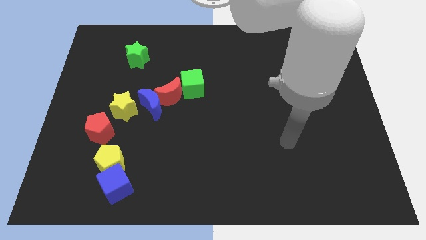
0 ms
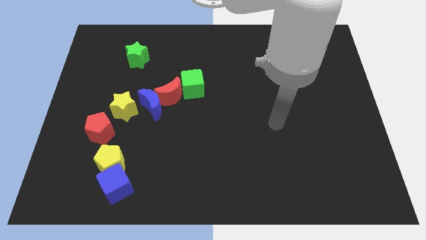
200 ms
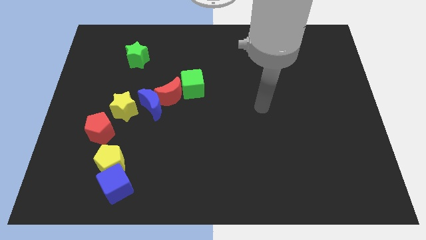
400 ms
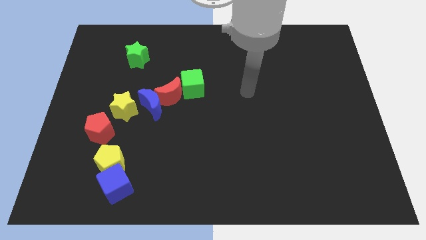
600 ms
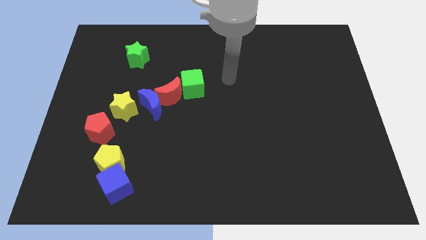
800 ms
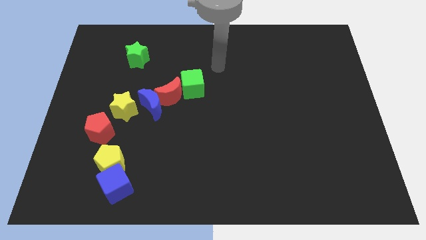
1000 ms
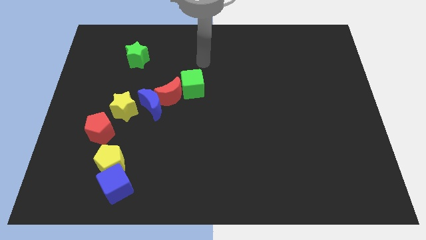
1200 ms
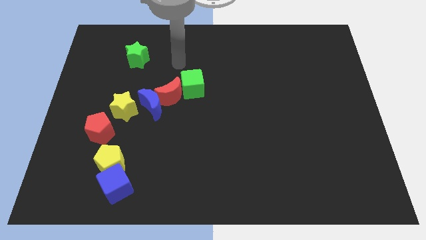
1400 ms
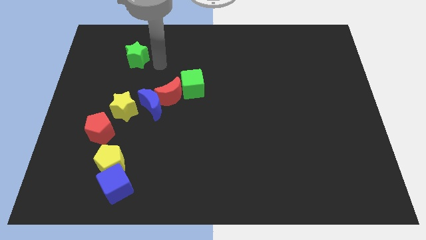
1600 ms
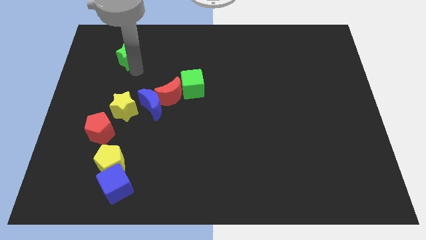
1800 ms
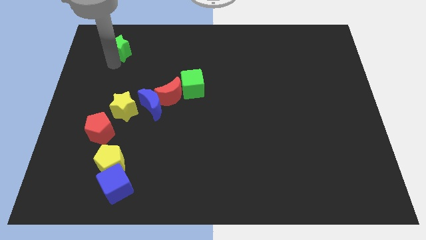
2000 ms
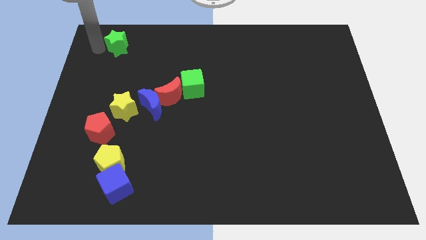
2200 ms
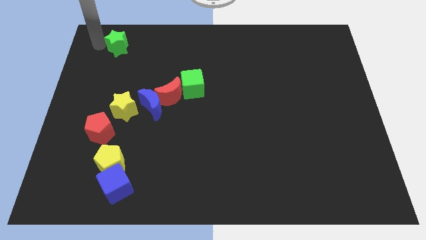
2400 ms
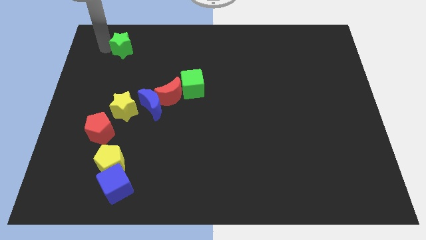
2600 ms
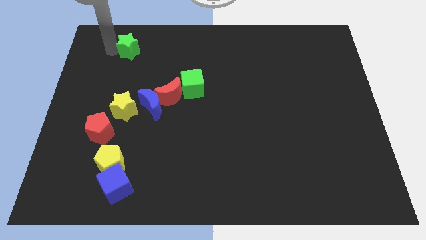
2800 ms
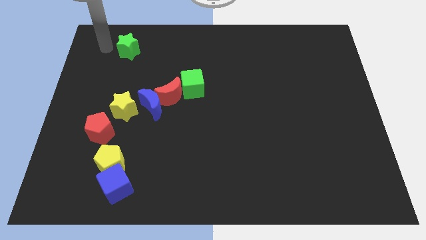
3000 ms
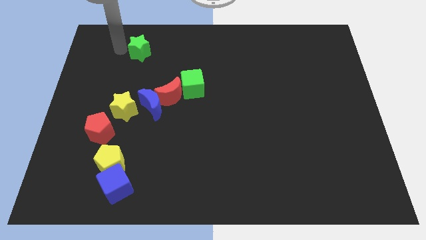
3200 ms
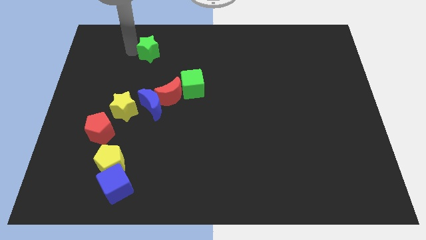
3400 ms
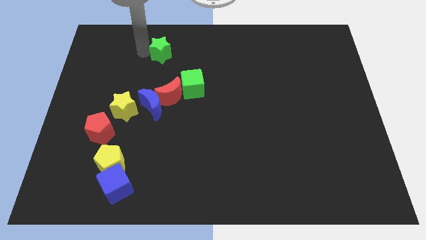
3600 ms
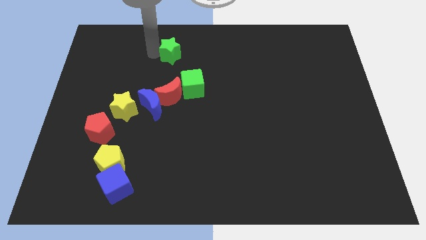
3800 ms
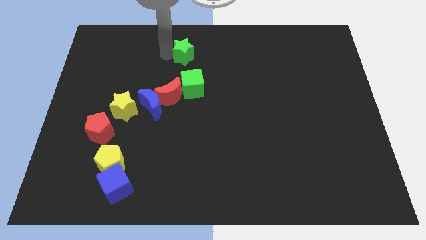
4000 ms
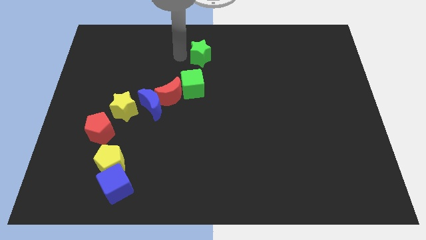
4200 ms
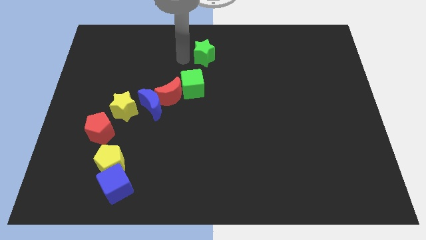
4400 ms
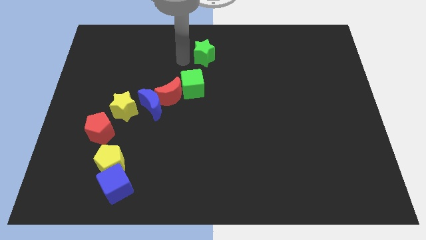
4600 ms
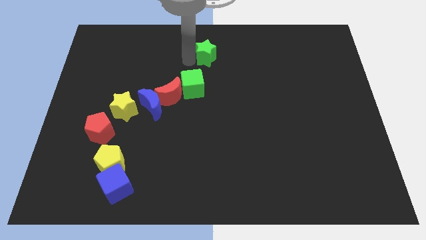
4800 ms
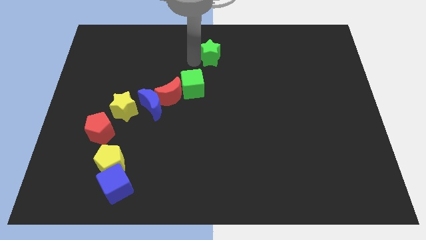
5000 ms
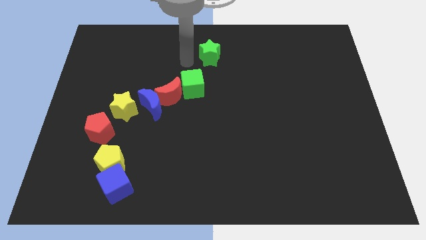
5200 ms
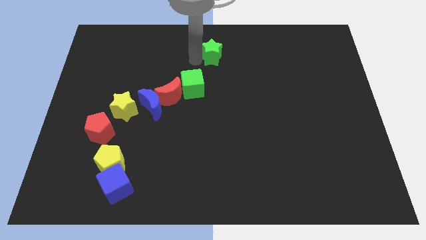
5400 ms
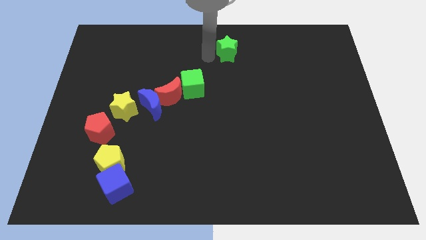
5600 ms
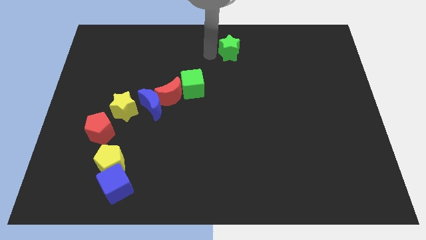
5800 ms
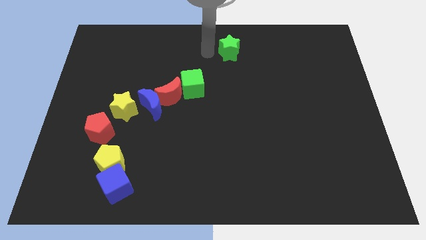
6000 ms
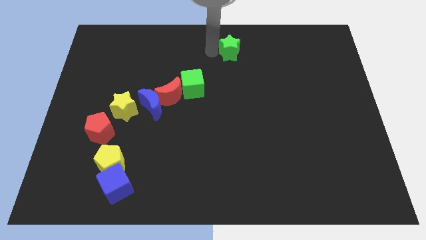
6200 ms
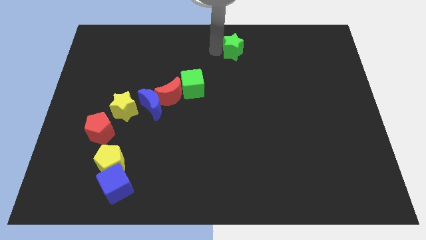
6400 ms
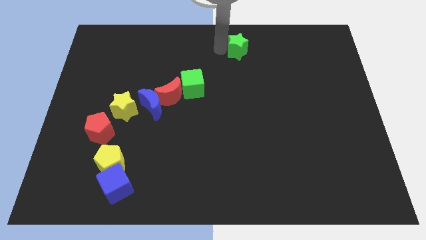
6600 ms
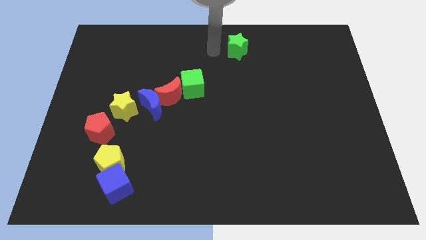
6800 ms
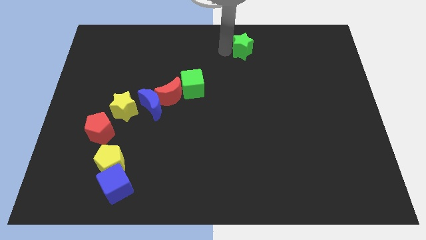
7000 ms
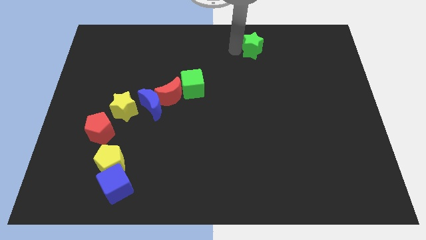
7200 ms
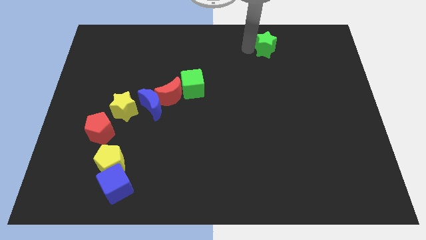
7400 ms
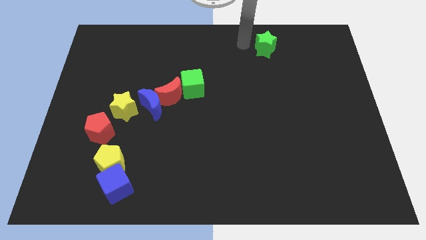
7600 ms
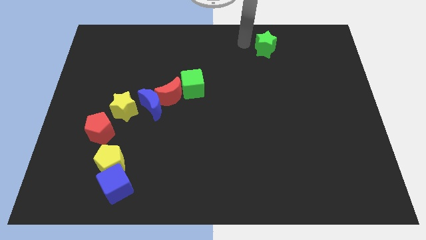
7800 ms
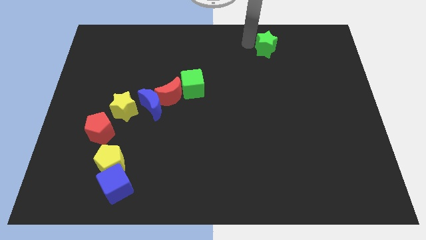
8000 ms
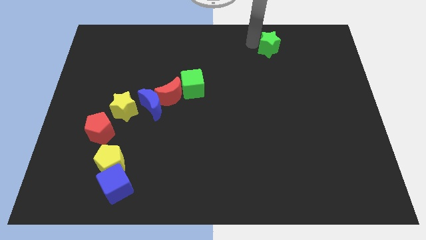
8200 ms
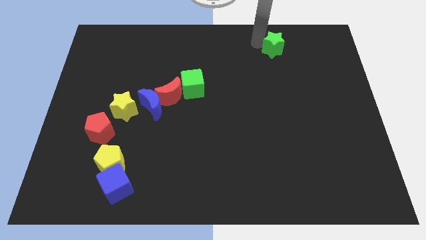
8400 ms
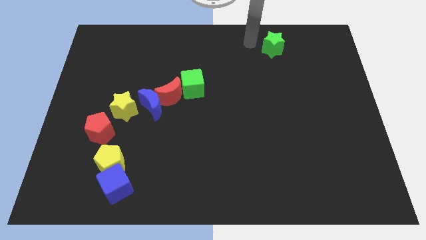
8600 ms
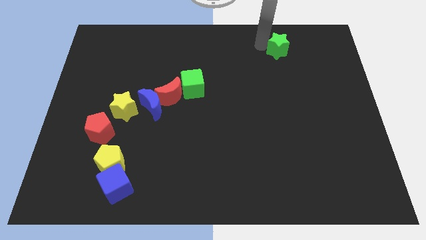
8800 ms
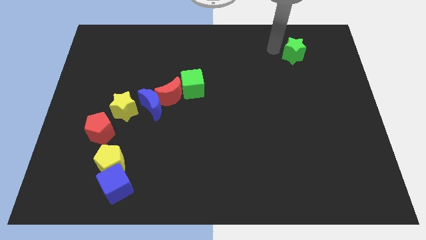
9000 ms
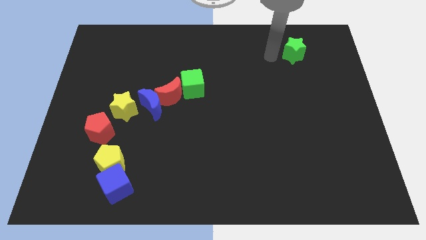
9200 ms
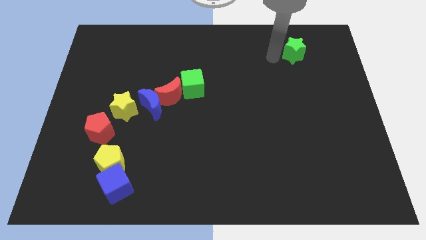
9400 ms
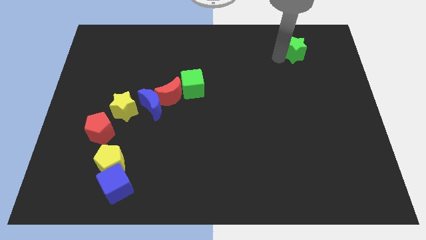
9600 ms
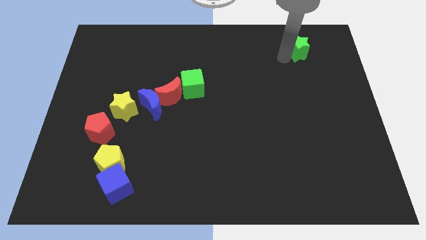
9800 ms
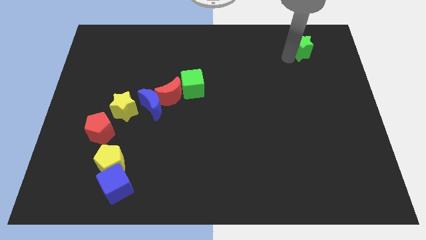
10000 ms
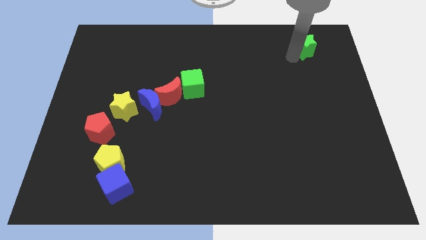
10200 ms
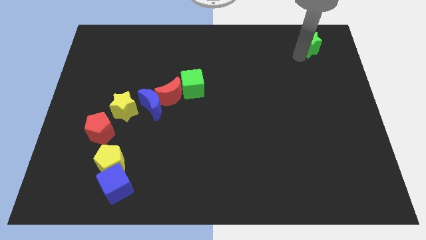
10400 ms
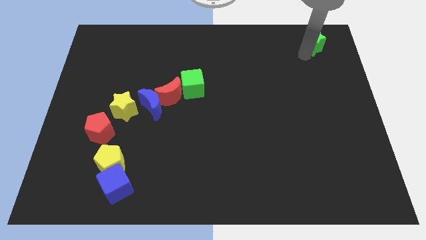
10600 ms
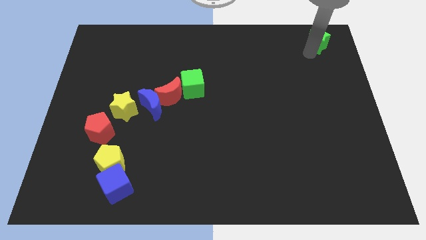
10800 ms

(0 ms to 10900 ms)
slide the green star to the top right of the board

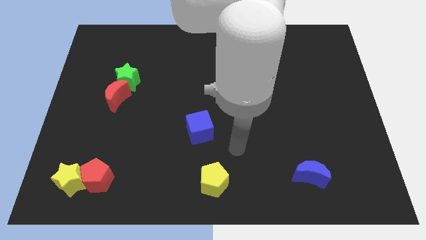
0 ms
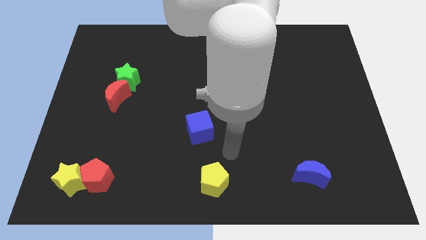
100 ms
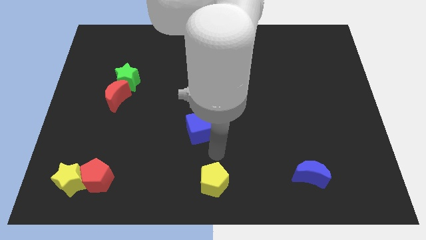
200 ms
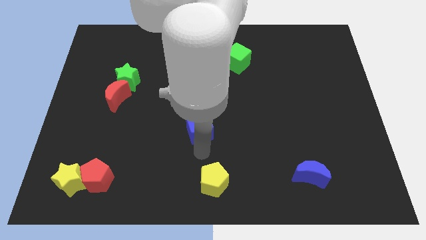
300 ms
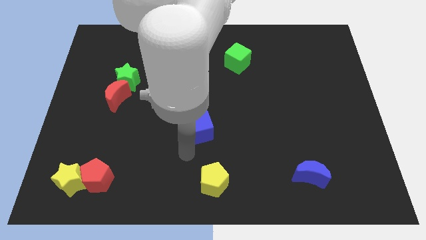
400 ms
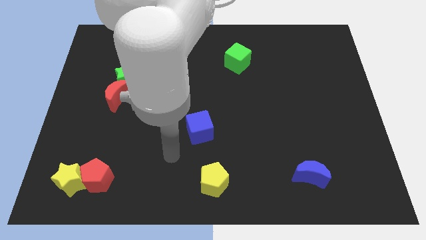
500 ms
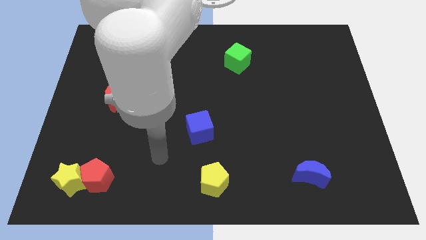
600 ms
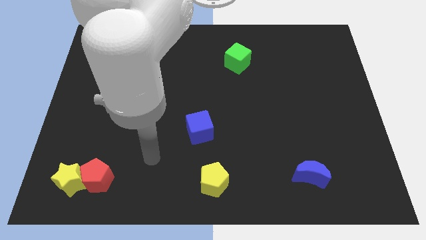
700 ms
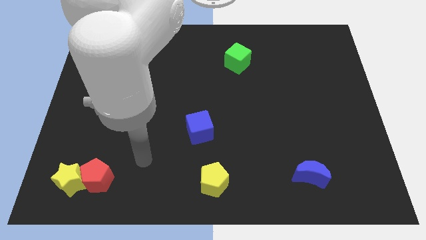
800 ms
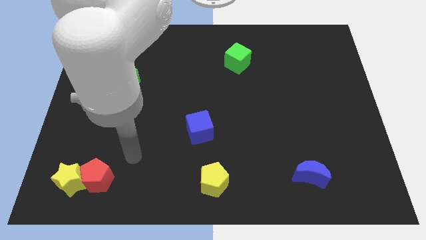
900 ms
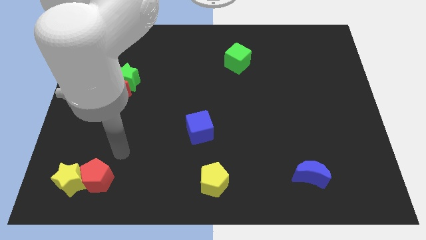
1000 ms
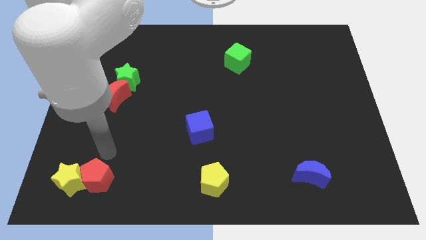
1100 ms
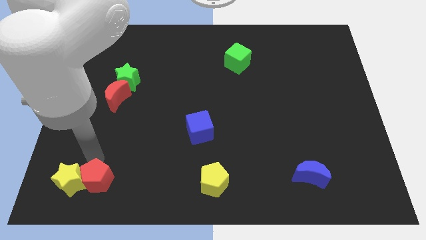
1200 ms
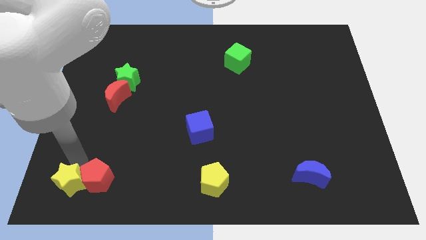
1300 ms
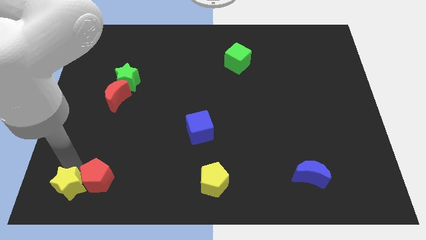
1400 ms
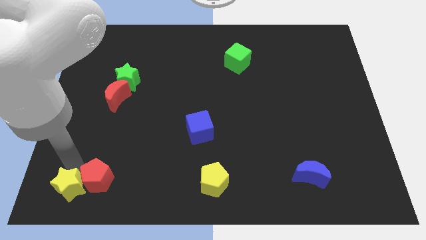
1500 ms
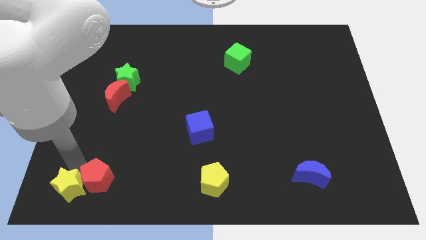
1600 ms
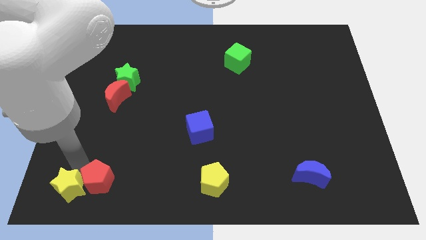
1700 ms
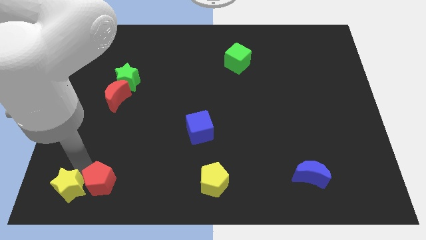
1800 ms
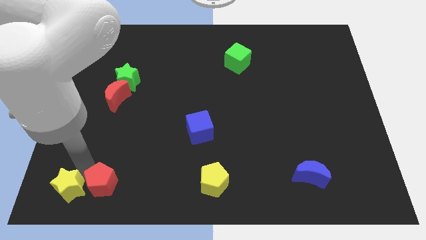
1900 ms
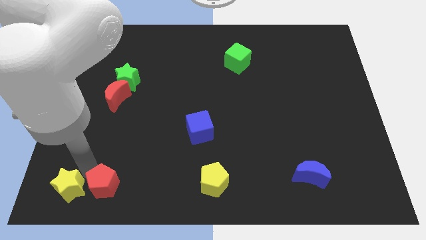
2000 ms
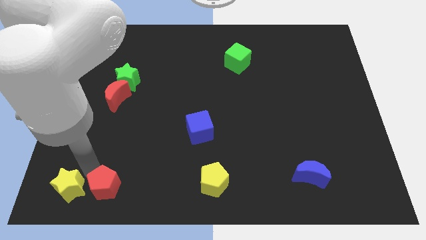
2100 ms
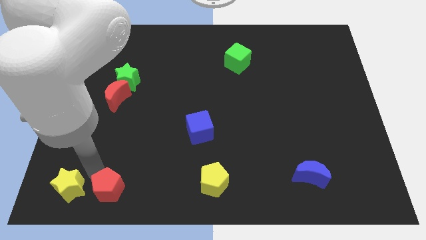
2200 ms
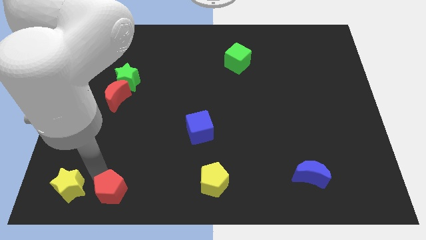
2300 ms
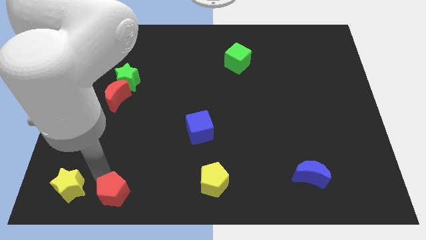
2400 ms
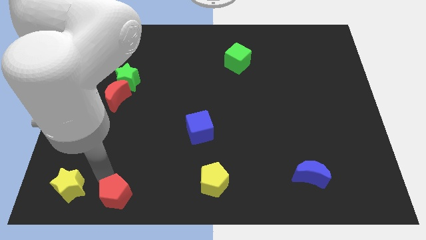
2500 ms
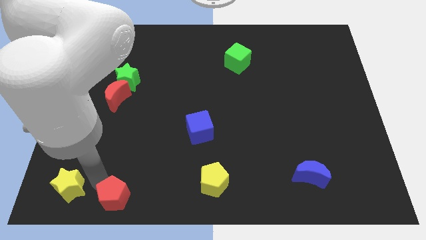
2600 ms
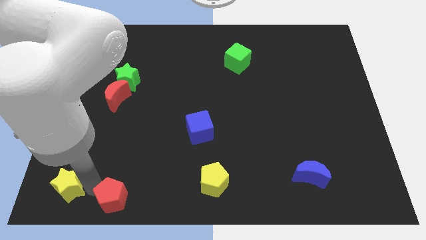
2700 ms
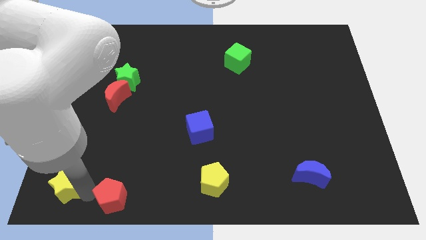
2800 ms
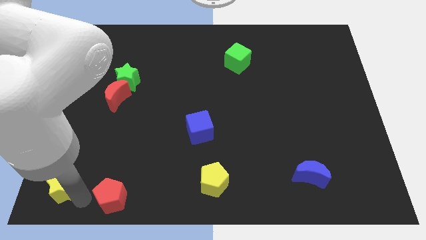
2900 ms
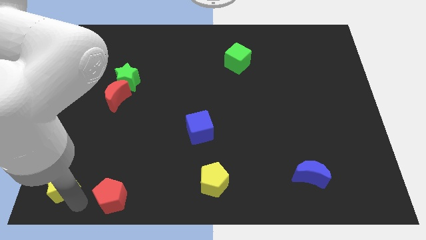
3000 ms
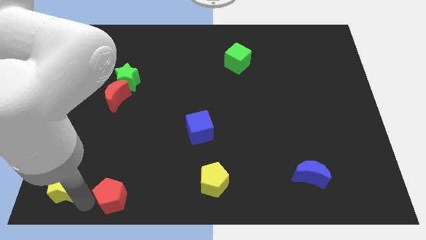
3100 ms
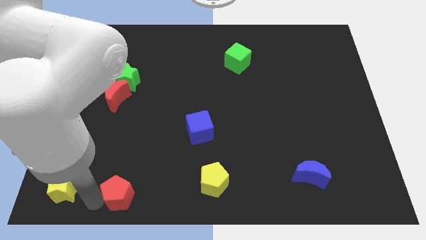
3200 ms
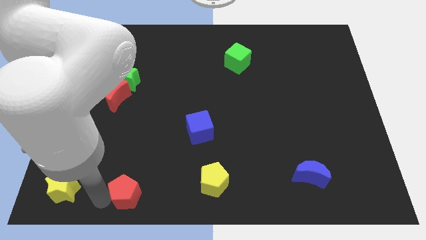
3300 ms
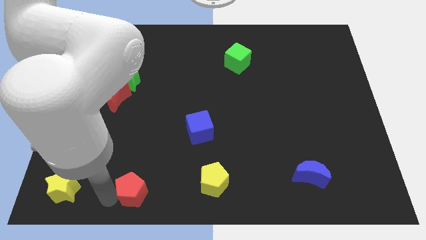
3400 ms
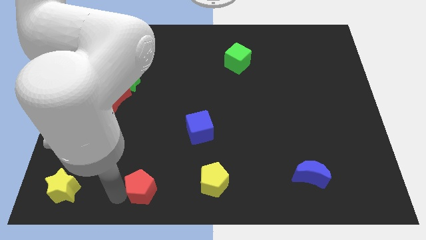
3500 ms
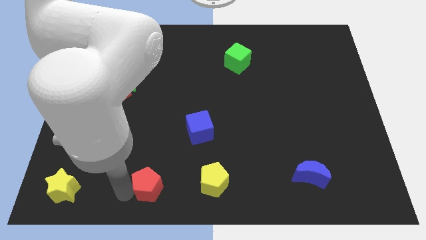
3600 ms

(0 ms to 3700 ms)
move the red pentagon to the bottom
